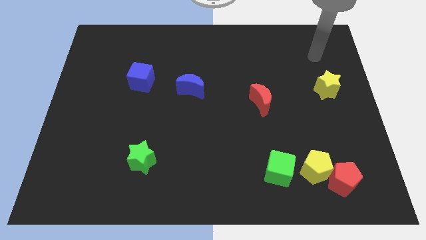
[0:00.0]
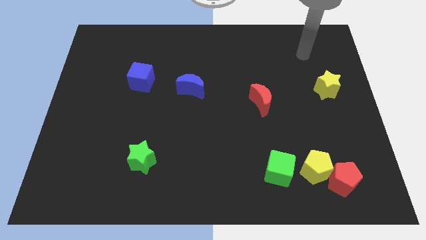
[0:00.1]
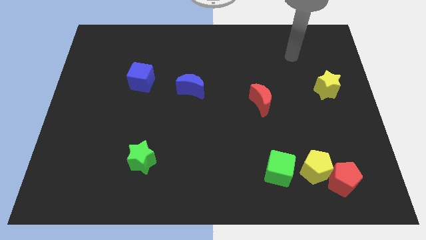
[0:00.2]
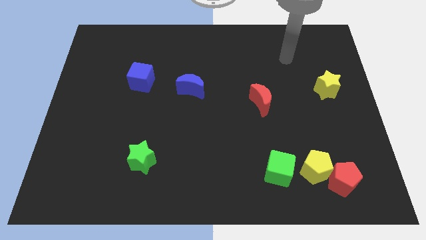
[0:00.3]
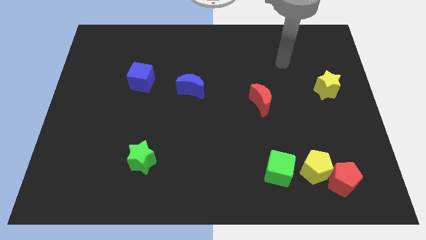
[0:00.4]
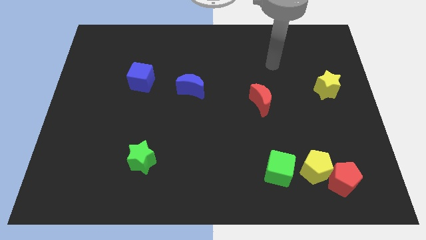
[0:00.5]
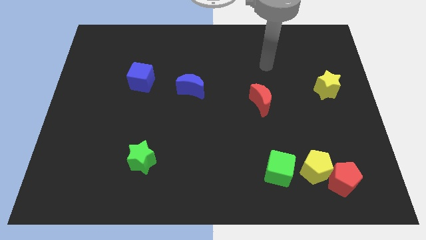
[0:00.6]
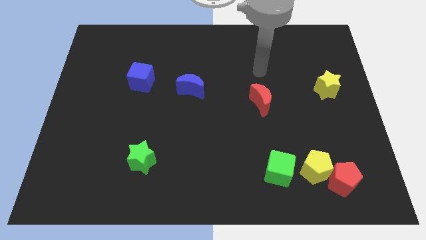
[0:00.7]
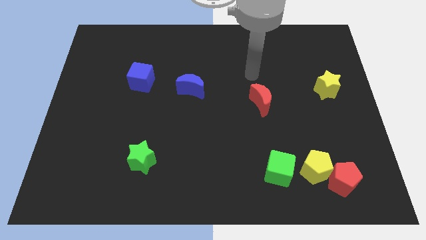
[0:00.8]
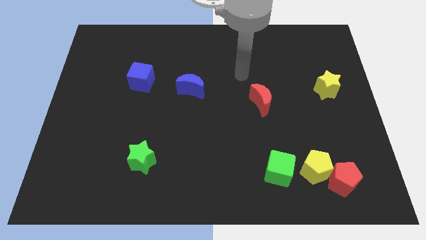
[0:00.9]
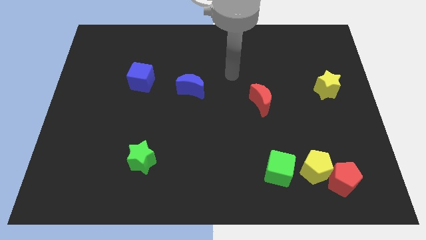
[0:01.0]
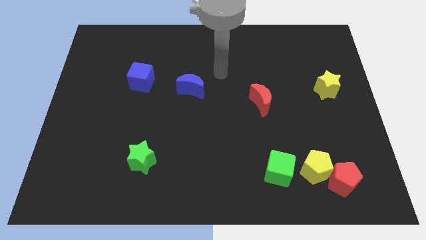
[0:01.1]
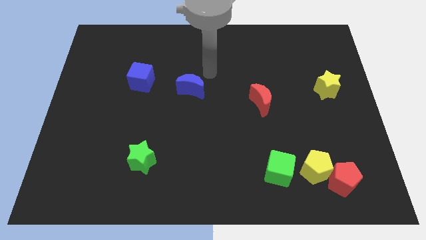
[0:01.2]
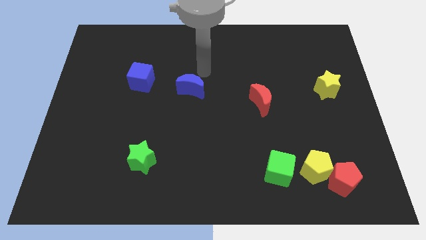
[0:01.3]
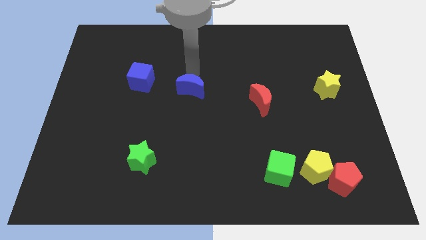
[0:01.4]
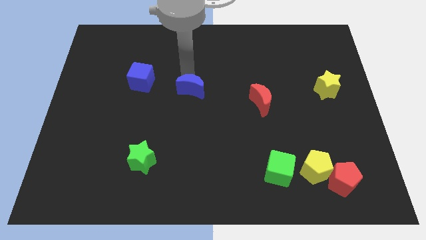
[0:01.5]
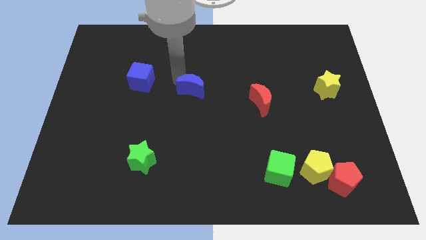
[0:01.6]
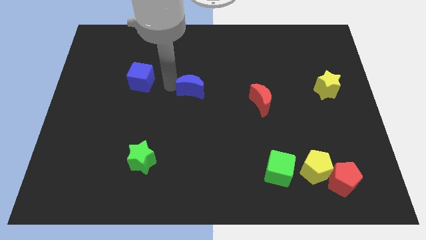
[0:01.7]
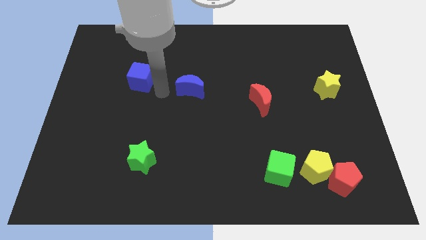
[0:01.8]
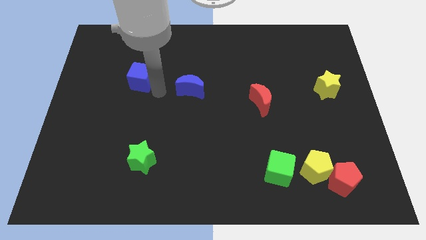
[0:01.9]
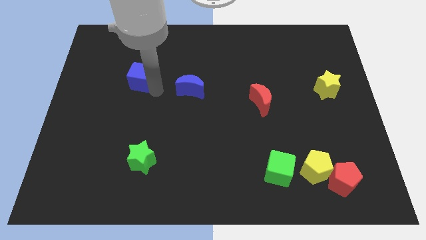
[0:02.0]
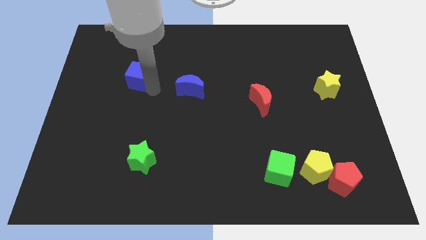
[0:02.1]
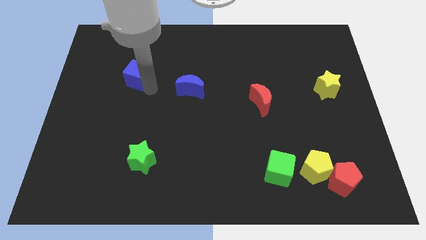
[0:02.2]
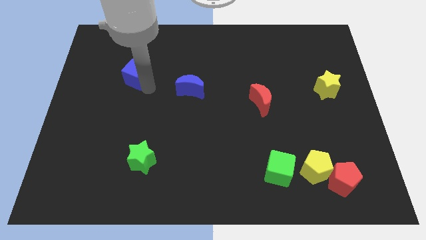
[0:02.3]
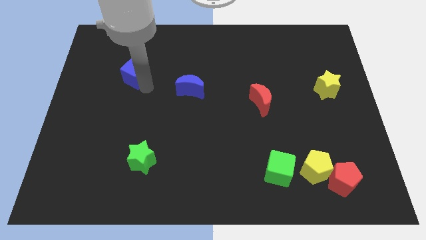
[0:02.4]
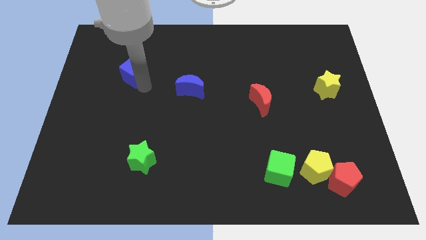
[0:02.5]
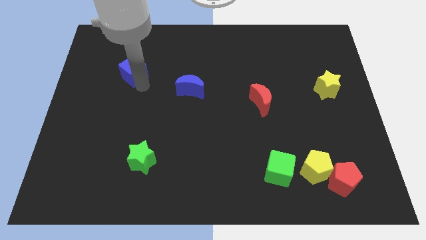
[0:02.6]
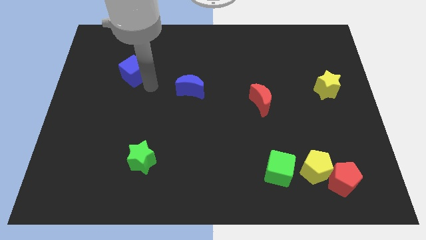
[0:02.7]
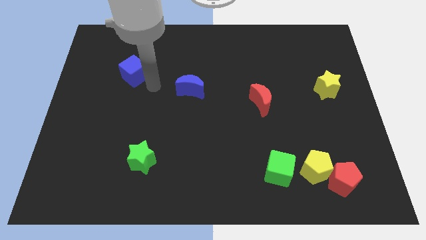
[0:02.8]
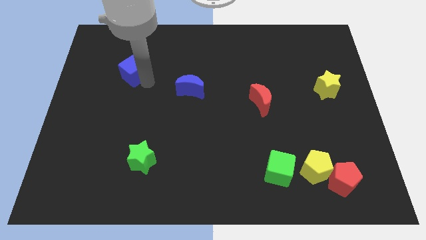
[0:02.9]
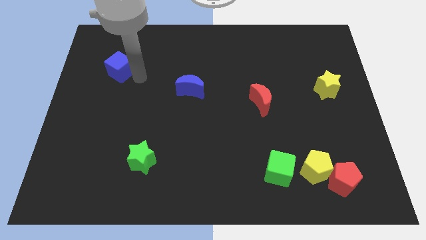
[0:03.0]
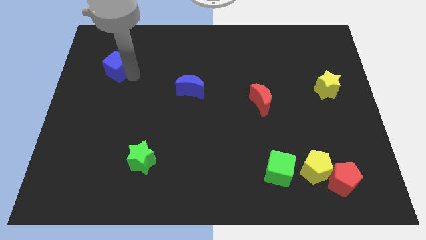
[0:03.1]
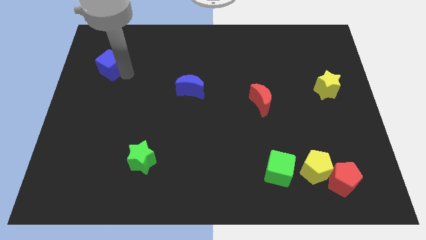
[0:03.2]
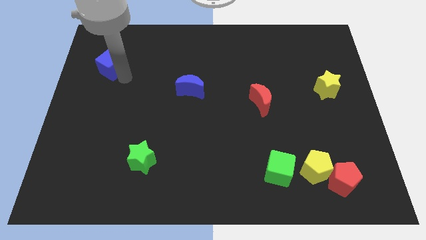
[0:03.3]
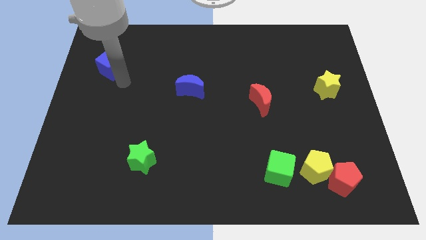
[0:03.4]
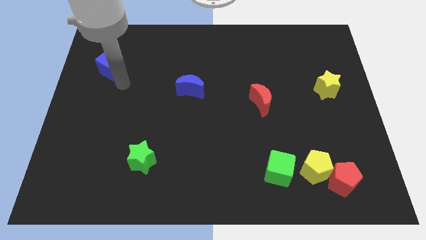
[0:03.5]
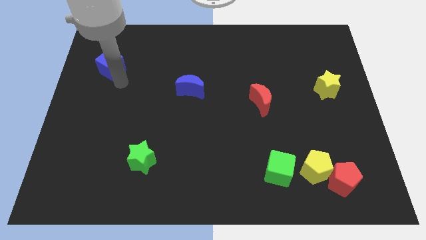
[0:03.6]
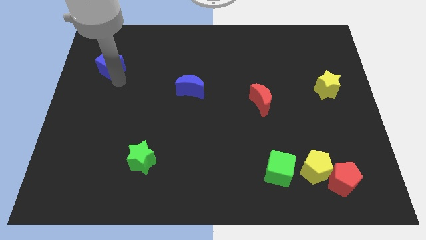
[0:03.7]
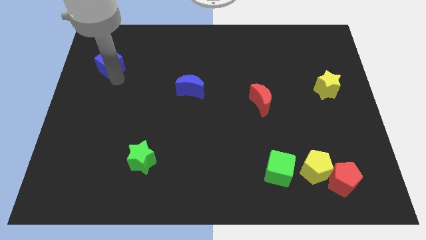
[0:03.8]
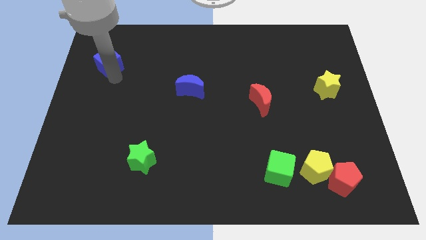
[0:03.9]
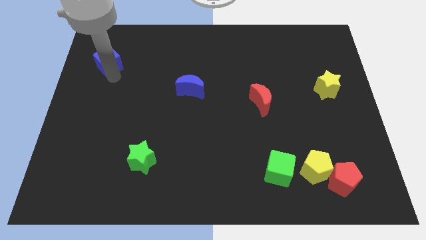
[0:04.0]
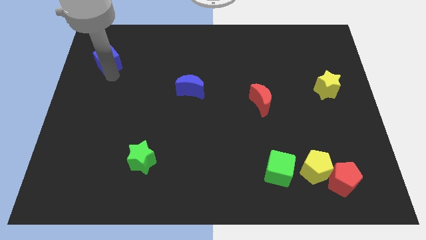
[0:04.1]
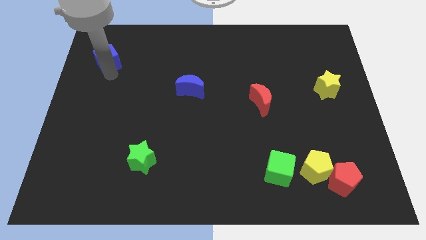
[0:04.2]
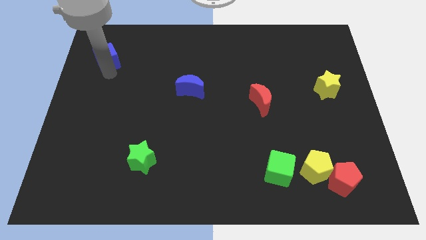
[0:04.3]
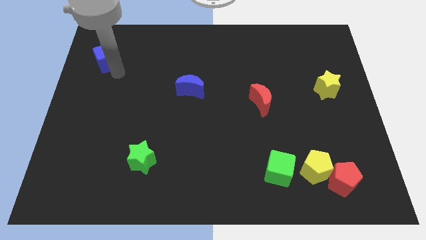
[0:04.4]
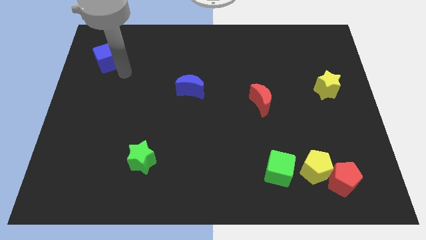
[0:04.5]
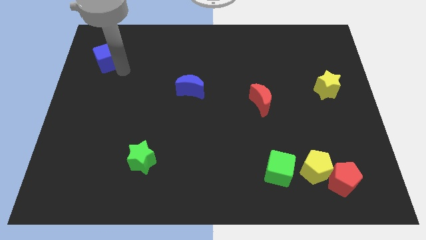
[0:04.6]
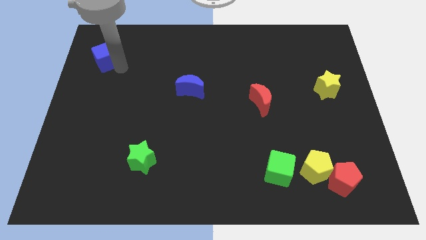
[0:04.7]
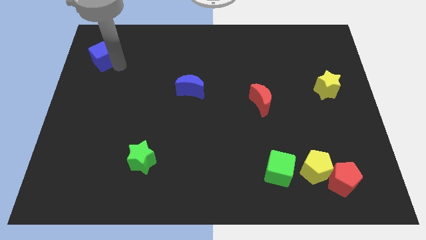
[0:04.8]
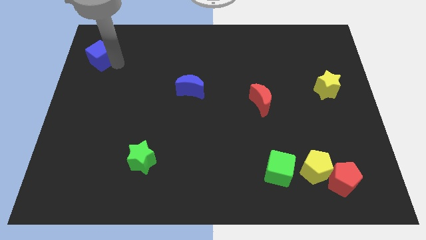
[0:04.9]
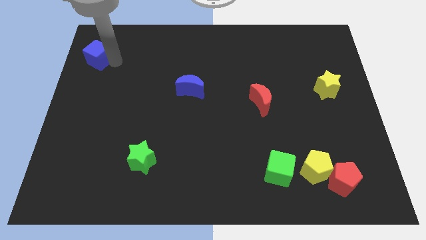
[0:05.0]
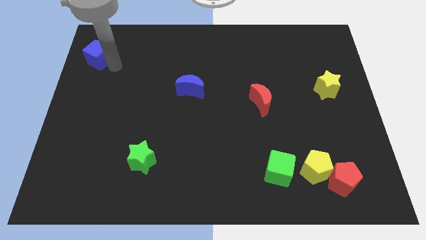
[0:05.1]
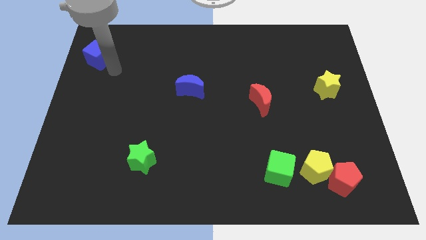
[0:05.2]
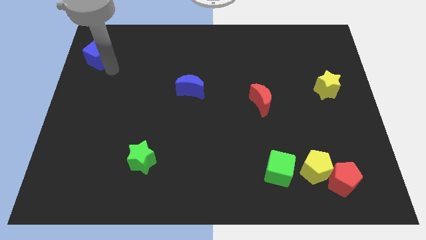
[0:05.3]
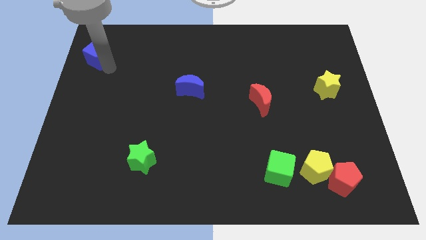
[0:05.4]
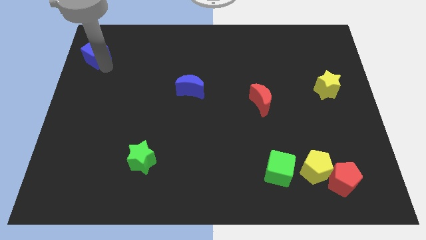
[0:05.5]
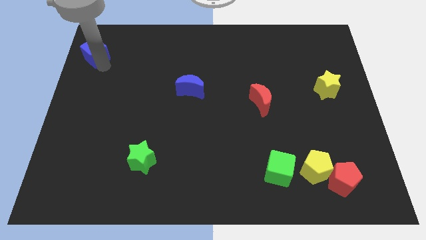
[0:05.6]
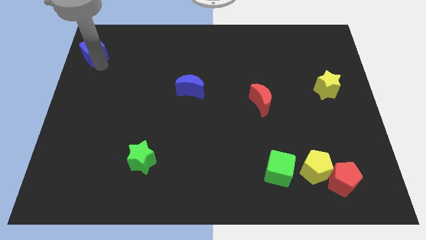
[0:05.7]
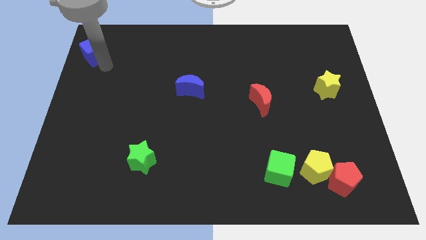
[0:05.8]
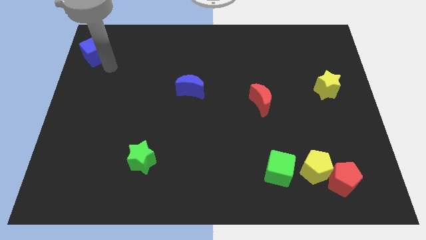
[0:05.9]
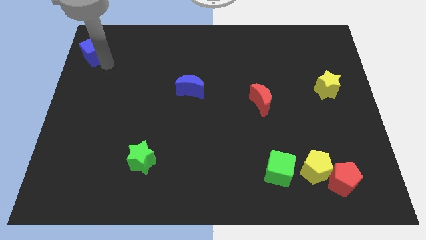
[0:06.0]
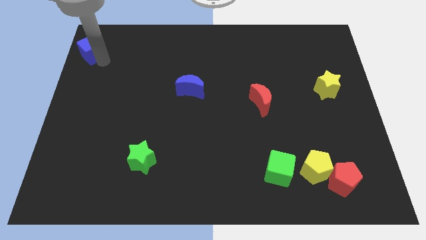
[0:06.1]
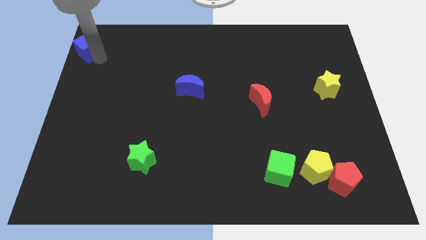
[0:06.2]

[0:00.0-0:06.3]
move the blue cube to the top left
